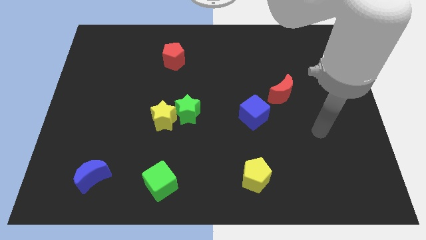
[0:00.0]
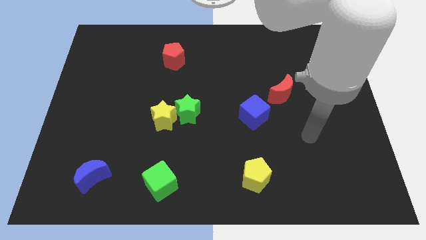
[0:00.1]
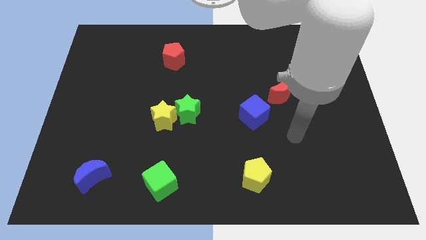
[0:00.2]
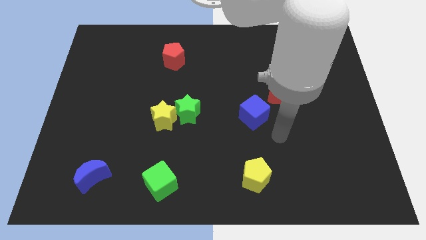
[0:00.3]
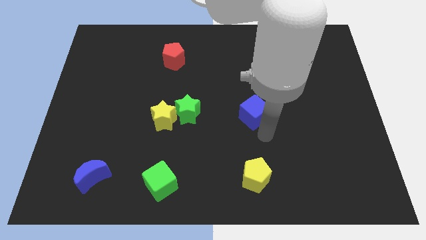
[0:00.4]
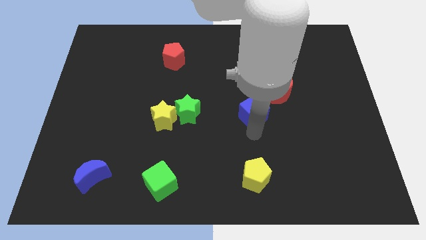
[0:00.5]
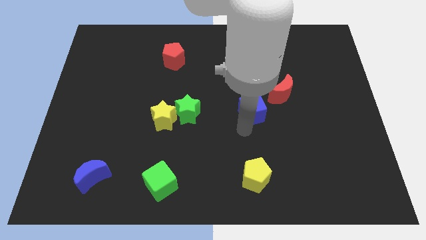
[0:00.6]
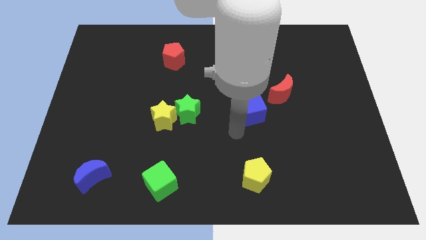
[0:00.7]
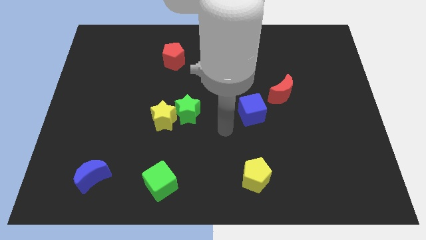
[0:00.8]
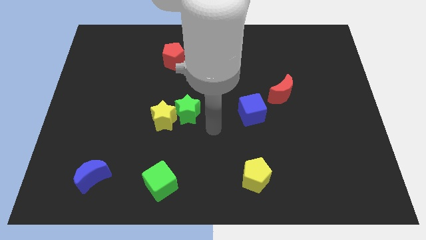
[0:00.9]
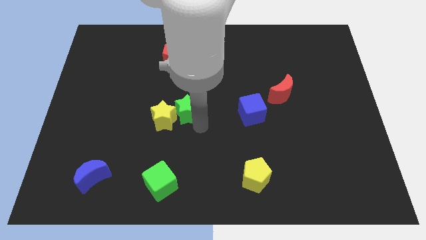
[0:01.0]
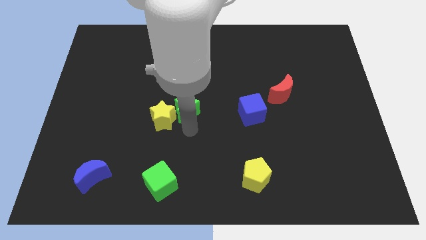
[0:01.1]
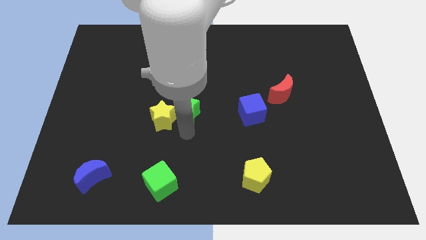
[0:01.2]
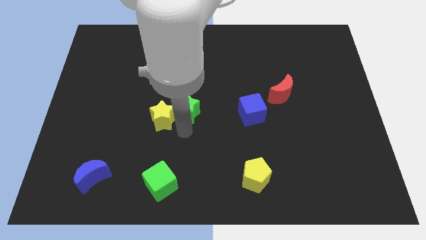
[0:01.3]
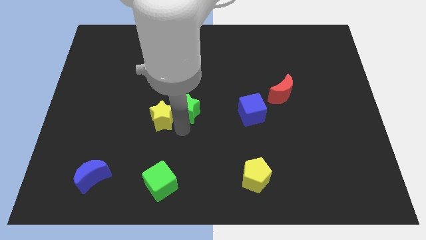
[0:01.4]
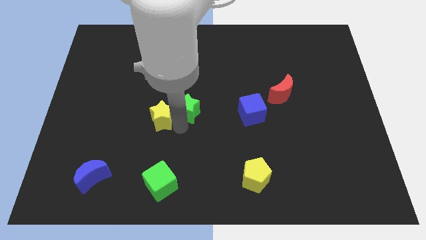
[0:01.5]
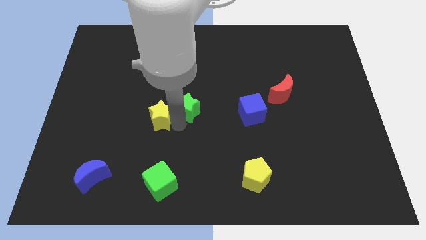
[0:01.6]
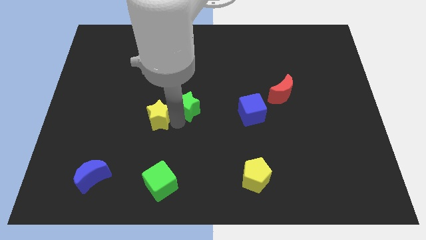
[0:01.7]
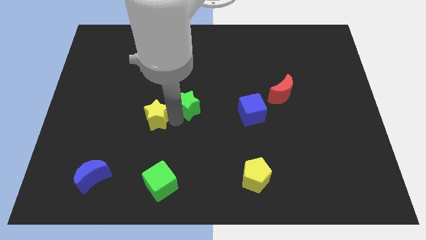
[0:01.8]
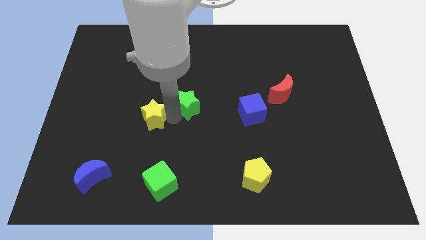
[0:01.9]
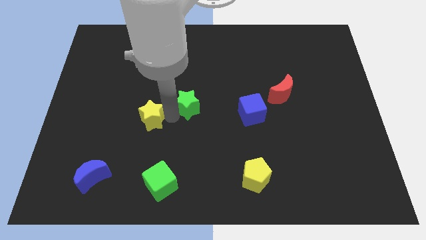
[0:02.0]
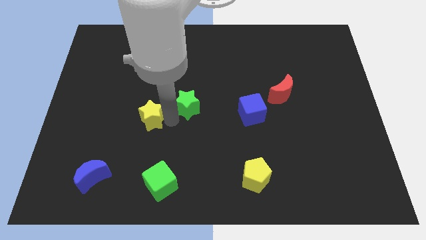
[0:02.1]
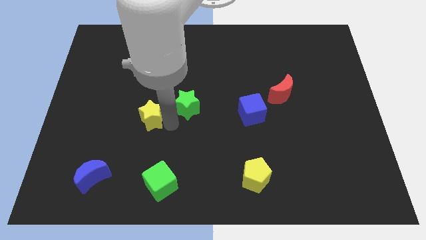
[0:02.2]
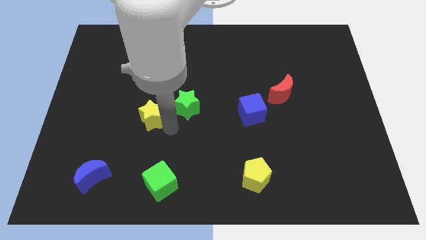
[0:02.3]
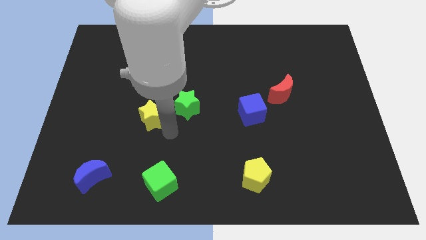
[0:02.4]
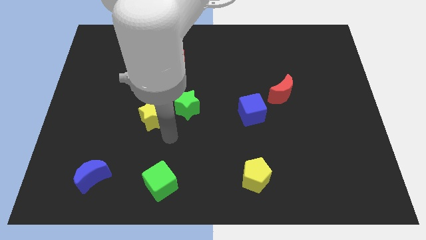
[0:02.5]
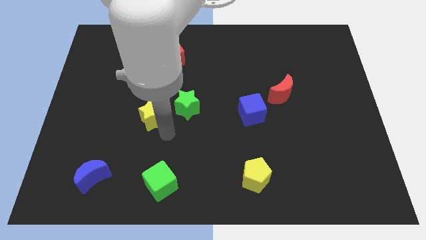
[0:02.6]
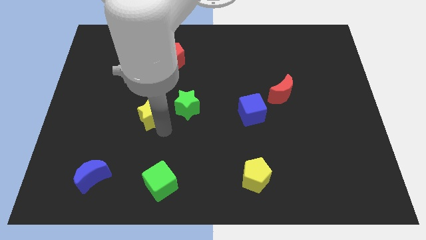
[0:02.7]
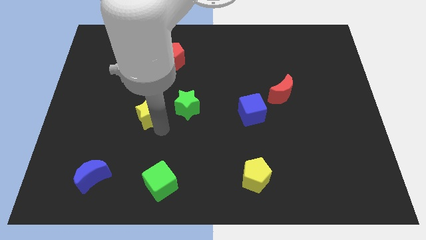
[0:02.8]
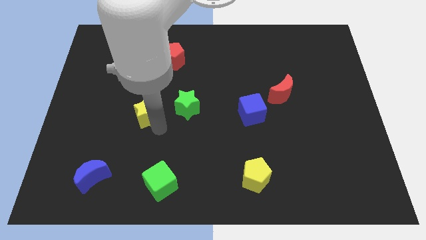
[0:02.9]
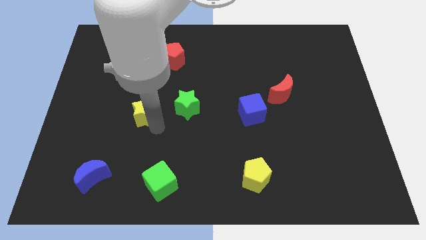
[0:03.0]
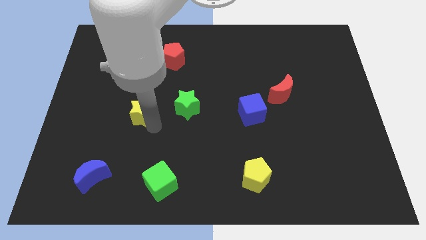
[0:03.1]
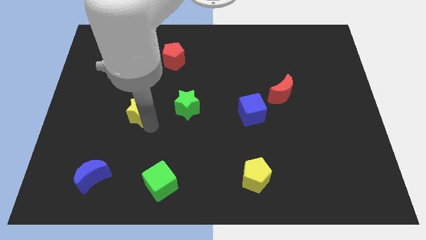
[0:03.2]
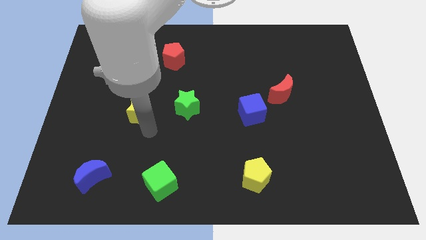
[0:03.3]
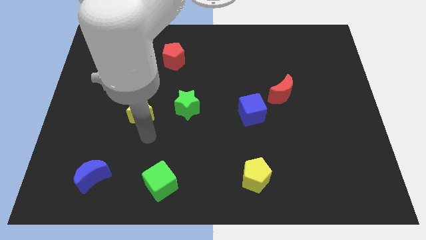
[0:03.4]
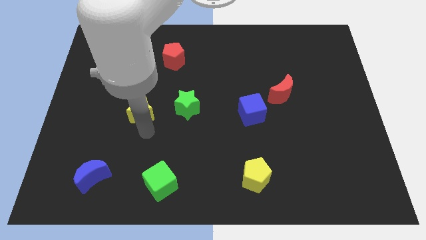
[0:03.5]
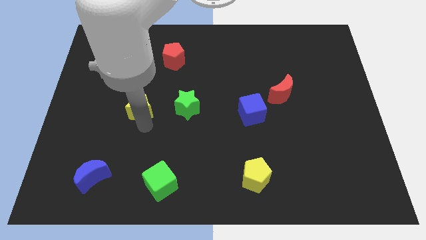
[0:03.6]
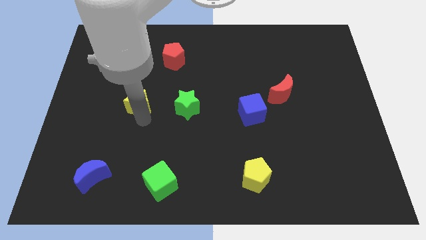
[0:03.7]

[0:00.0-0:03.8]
move the yellow star up and then to the left a little

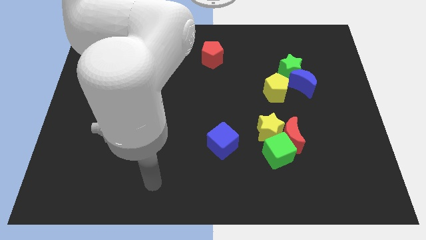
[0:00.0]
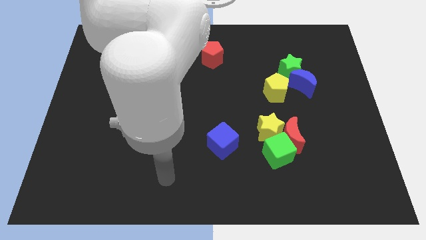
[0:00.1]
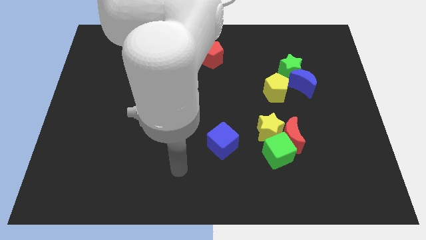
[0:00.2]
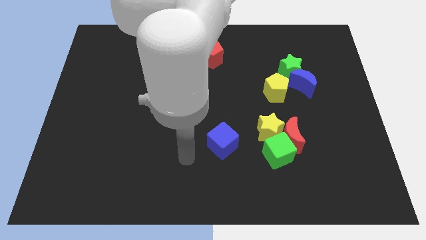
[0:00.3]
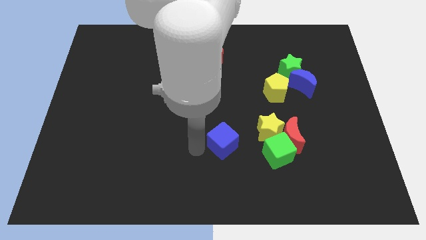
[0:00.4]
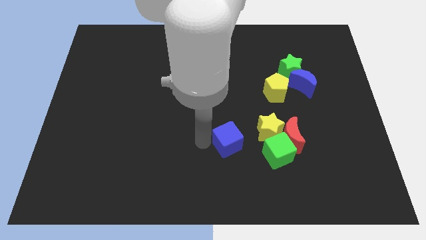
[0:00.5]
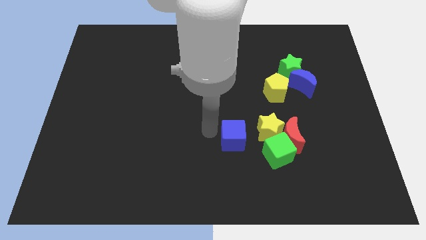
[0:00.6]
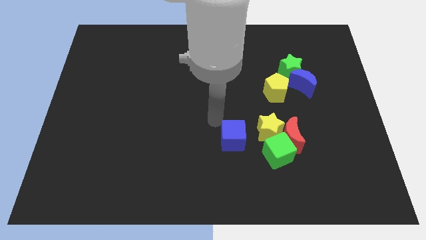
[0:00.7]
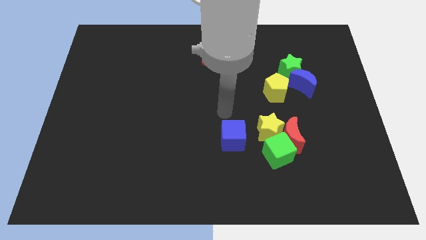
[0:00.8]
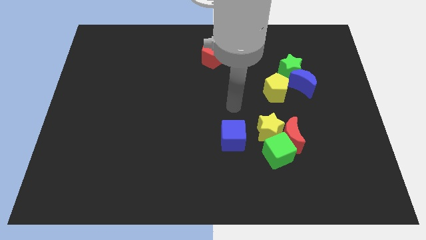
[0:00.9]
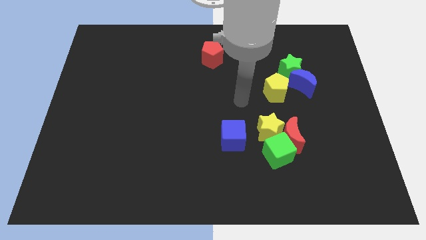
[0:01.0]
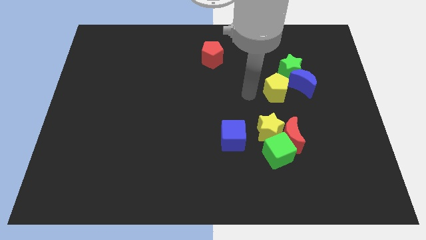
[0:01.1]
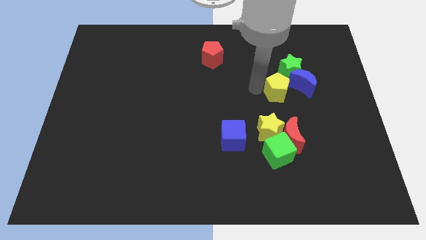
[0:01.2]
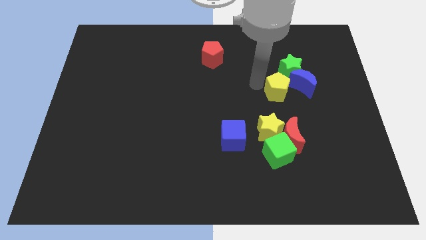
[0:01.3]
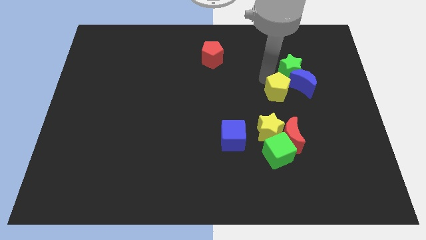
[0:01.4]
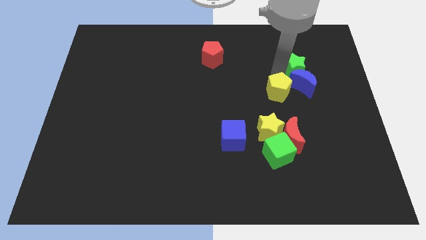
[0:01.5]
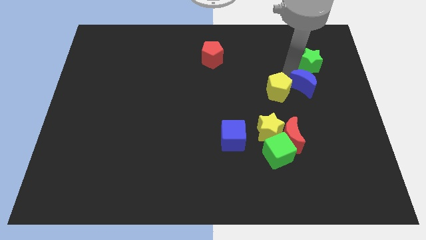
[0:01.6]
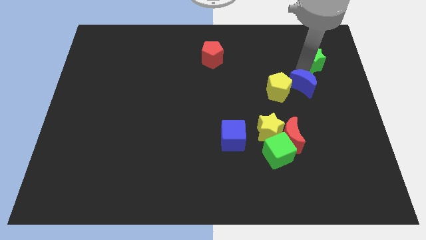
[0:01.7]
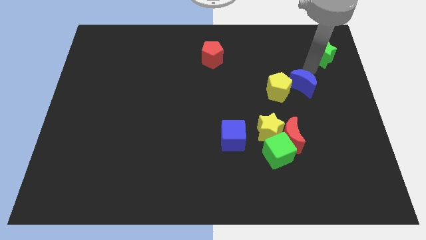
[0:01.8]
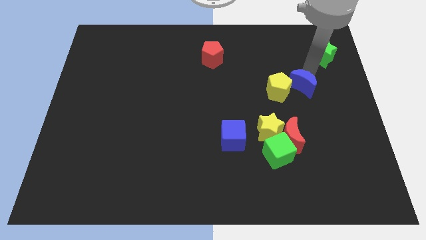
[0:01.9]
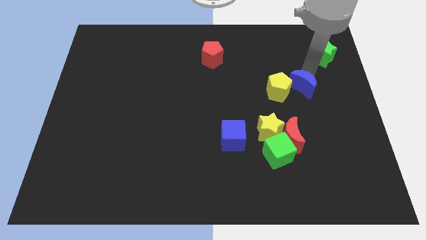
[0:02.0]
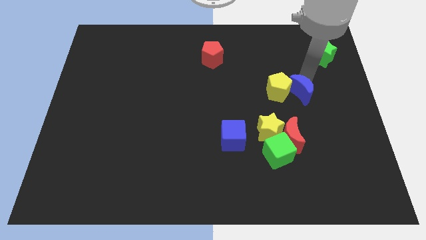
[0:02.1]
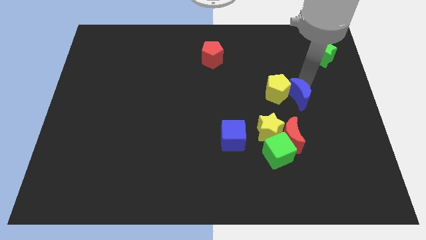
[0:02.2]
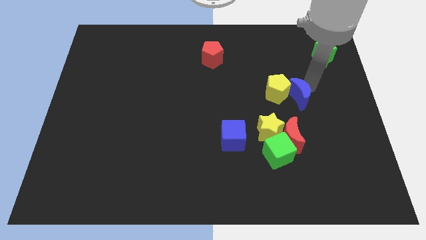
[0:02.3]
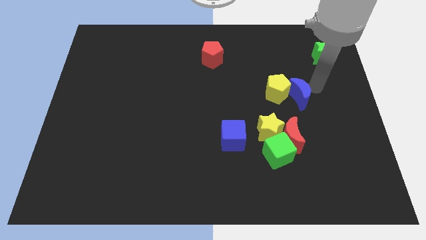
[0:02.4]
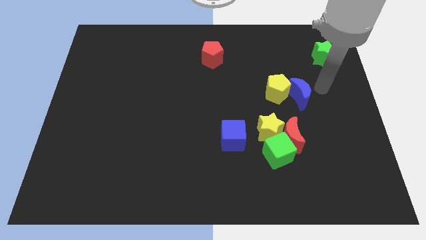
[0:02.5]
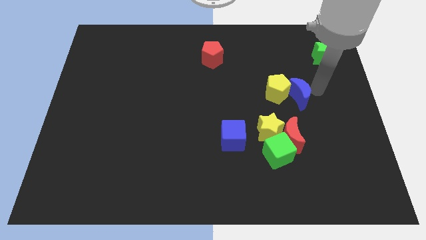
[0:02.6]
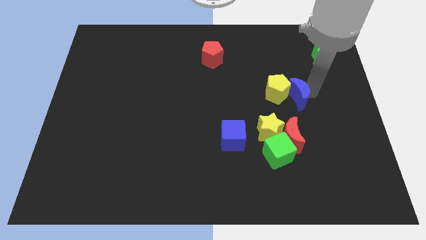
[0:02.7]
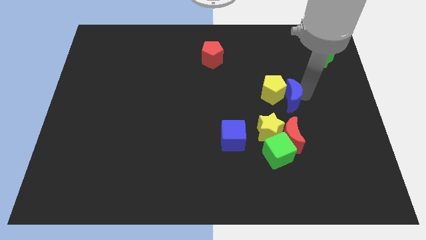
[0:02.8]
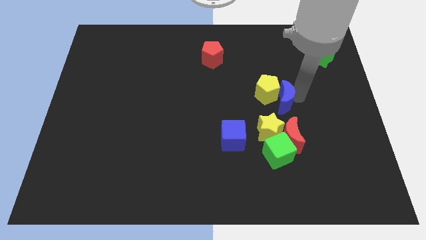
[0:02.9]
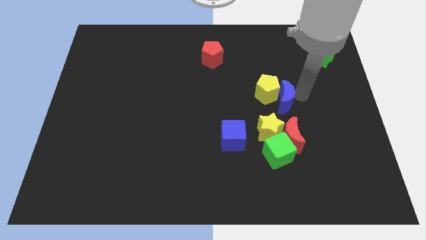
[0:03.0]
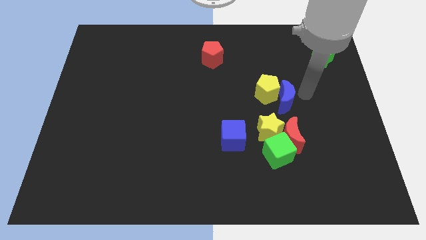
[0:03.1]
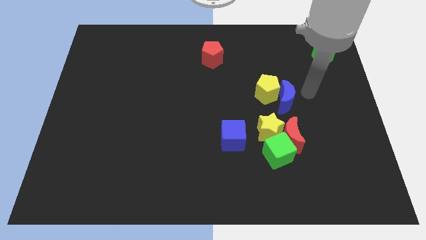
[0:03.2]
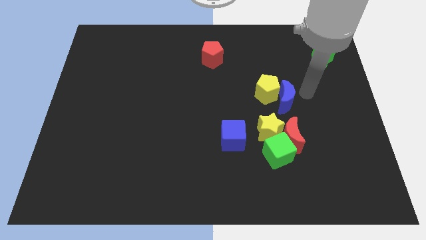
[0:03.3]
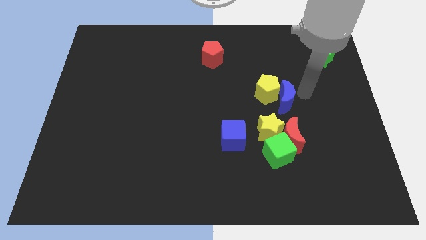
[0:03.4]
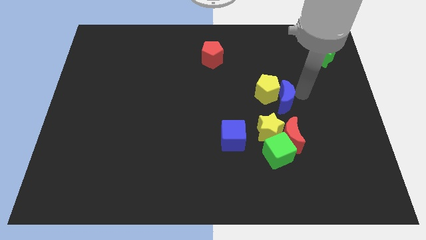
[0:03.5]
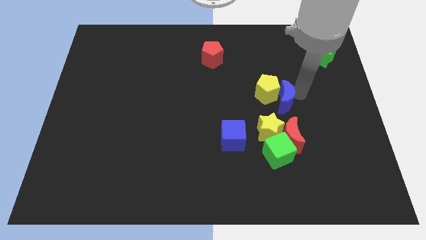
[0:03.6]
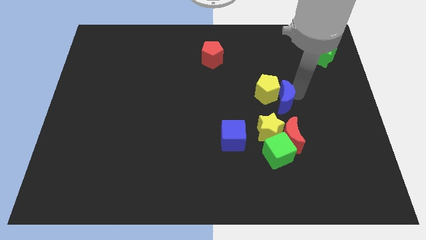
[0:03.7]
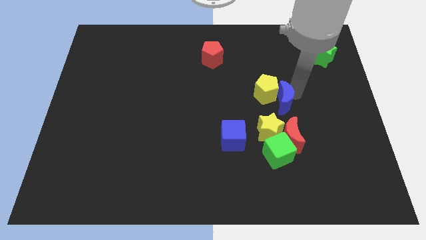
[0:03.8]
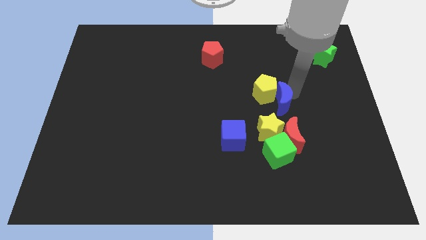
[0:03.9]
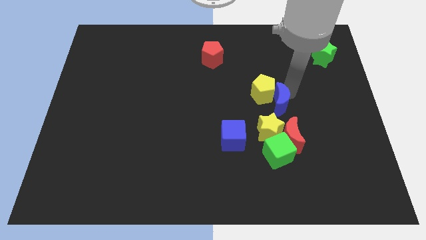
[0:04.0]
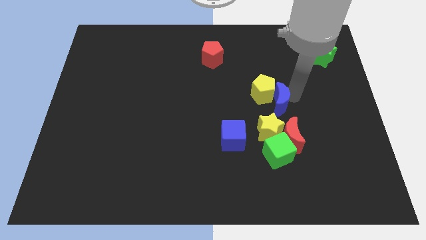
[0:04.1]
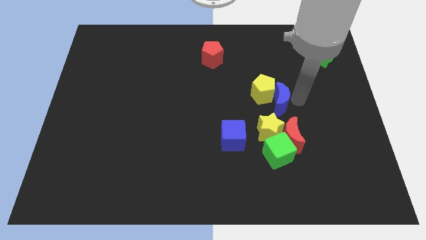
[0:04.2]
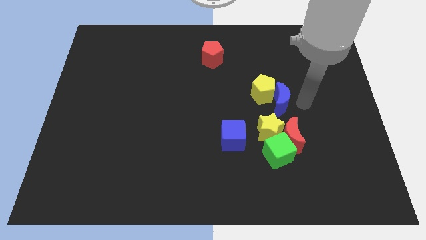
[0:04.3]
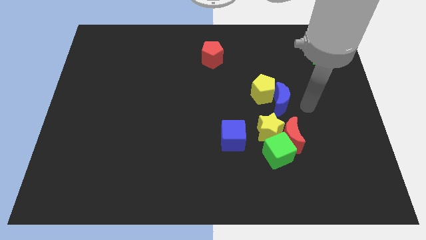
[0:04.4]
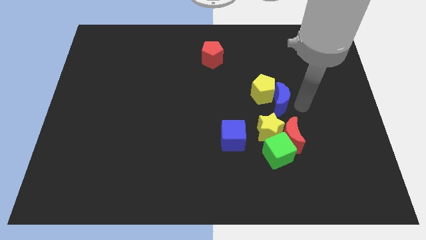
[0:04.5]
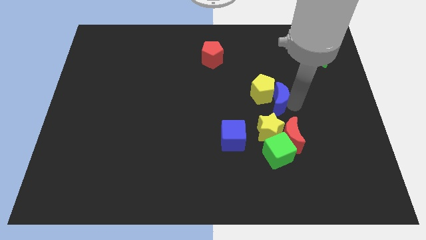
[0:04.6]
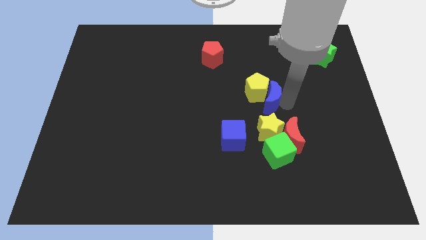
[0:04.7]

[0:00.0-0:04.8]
push the blue moon left slightly
